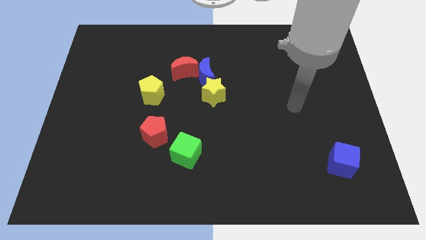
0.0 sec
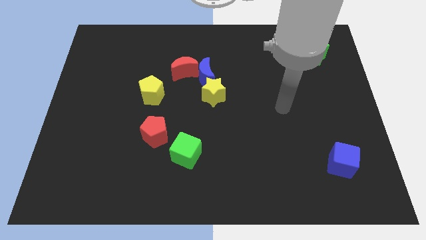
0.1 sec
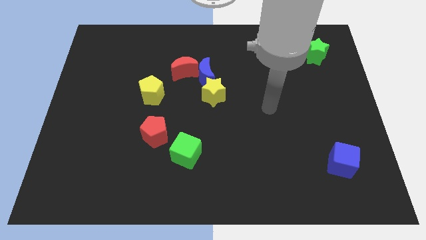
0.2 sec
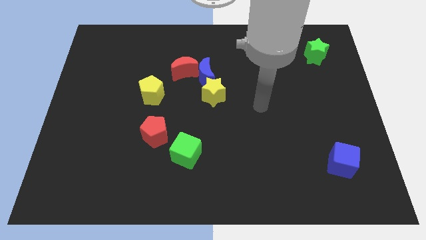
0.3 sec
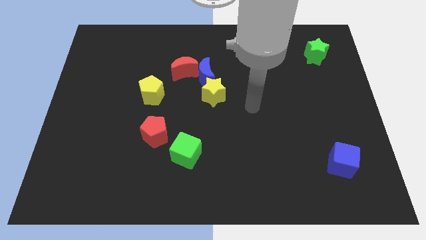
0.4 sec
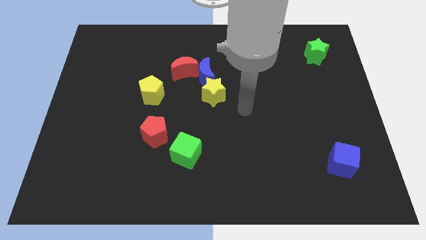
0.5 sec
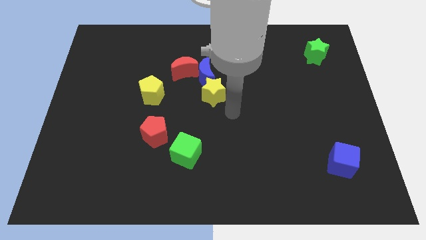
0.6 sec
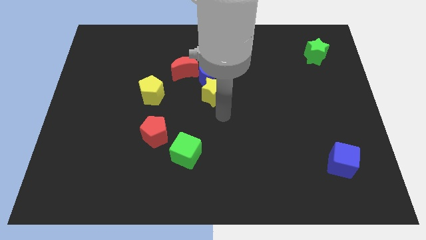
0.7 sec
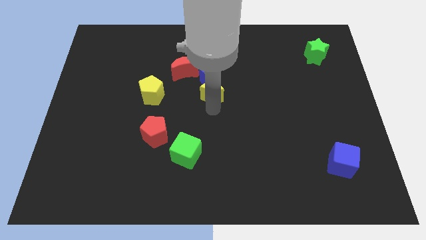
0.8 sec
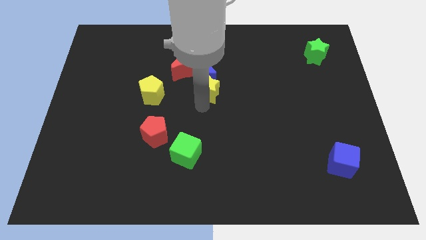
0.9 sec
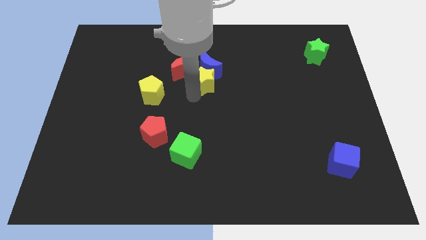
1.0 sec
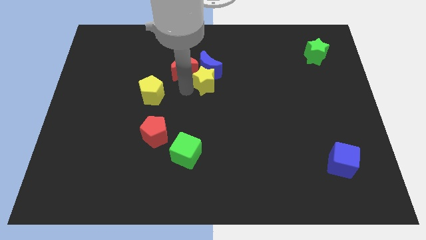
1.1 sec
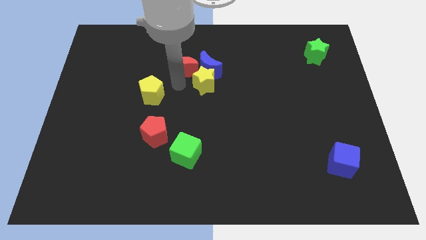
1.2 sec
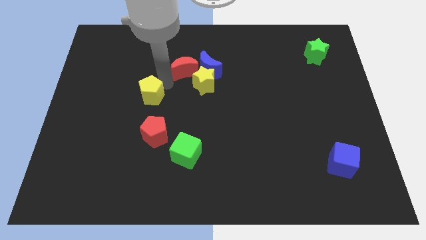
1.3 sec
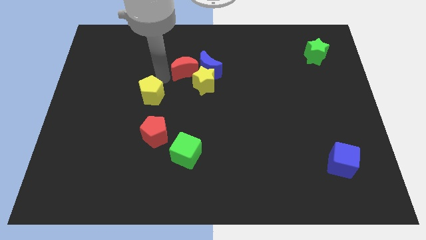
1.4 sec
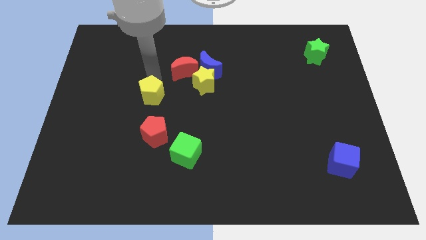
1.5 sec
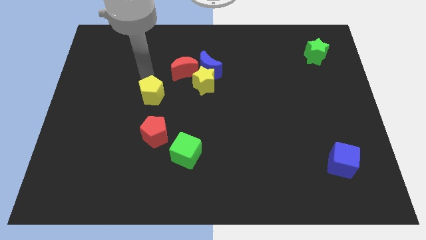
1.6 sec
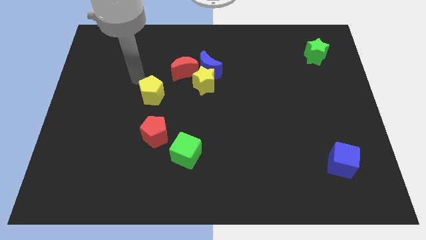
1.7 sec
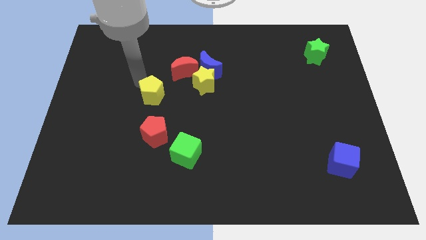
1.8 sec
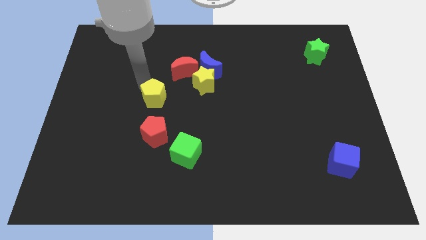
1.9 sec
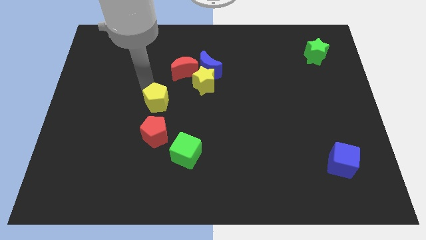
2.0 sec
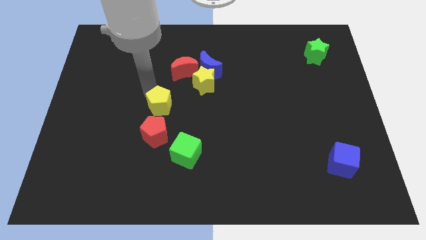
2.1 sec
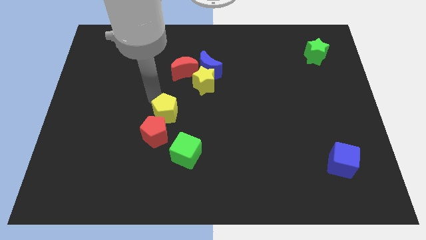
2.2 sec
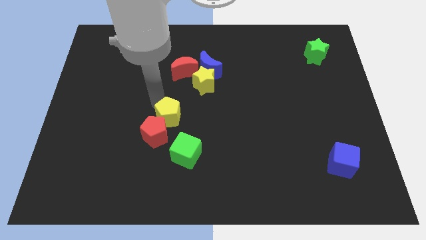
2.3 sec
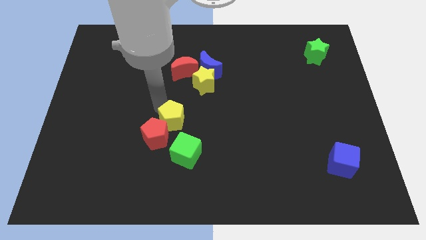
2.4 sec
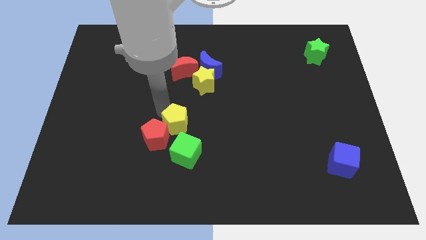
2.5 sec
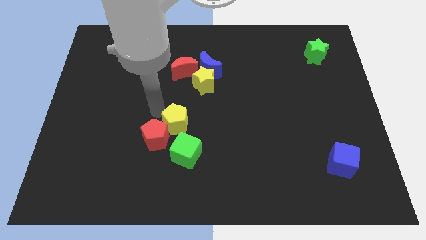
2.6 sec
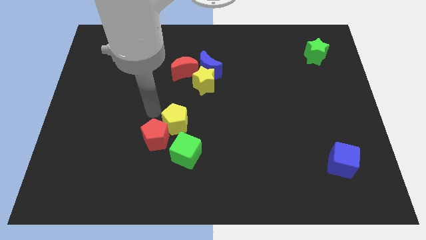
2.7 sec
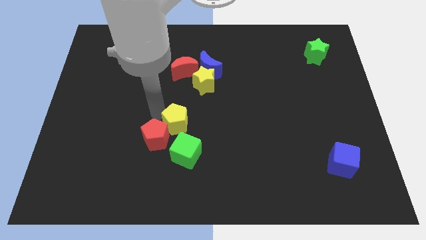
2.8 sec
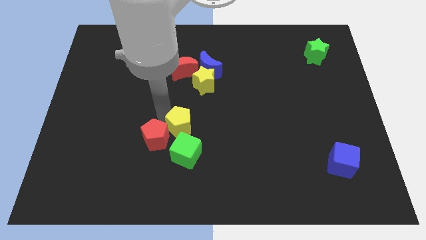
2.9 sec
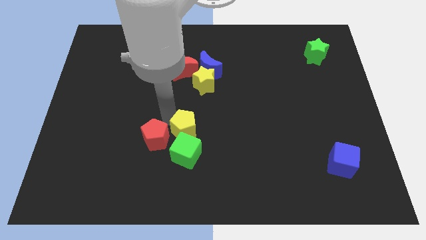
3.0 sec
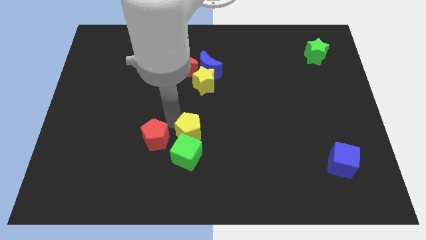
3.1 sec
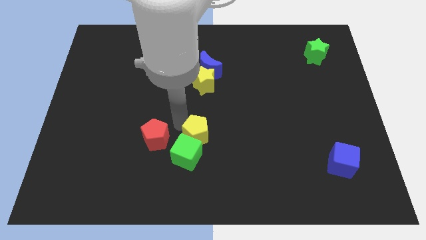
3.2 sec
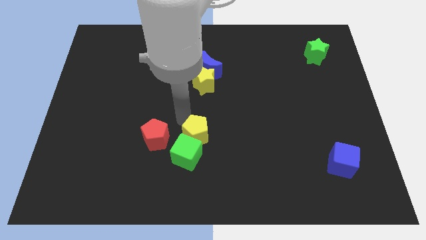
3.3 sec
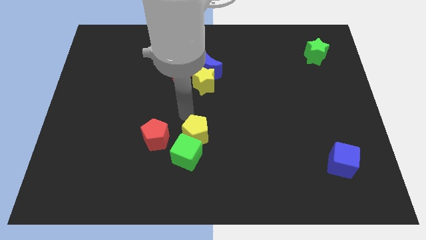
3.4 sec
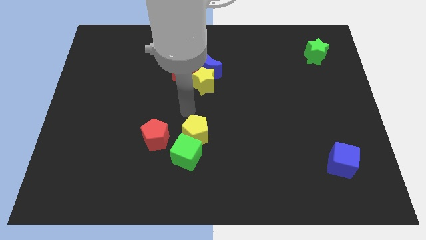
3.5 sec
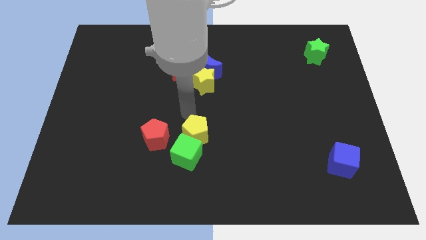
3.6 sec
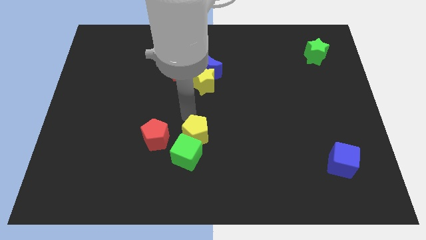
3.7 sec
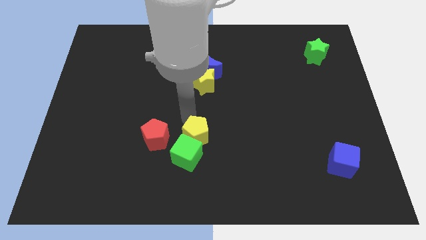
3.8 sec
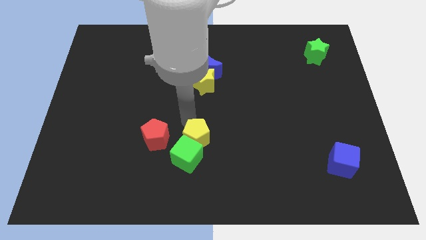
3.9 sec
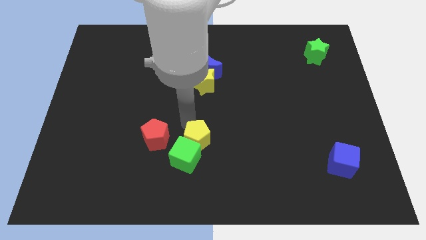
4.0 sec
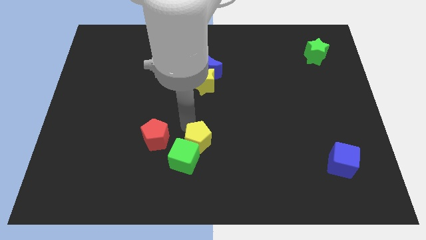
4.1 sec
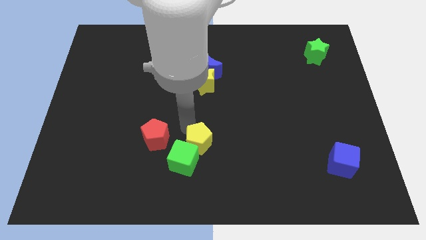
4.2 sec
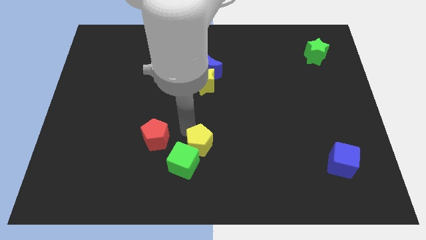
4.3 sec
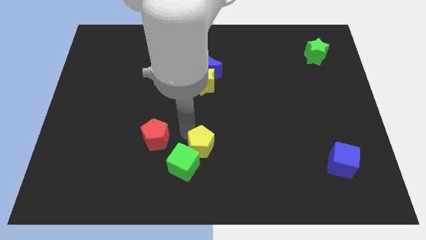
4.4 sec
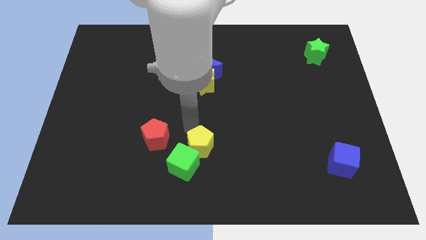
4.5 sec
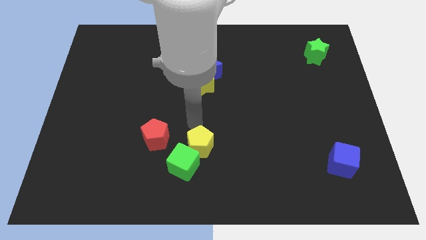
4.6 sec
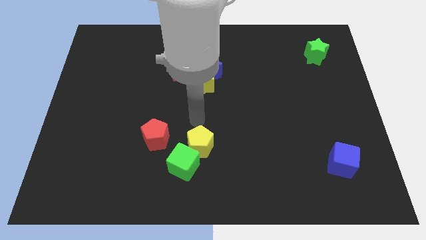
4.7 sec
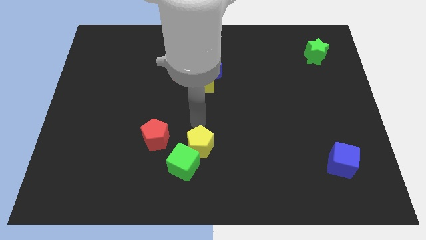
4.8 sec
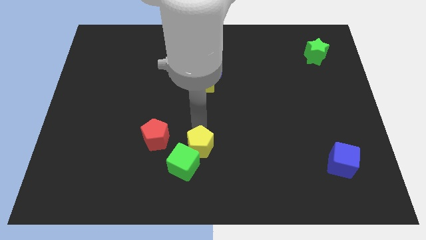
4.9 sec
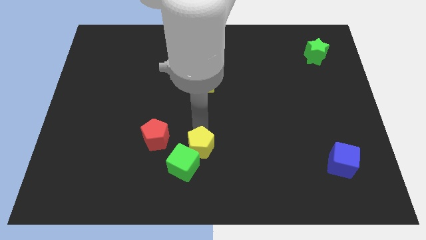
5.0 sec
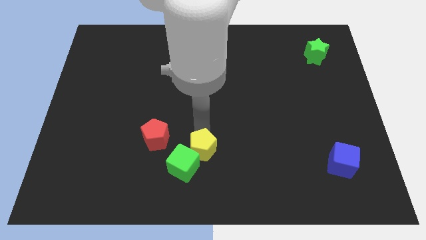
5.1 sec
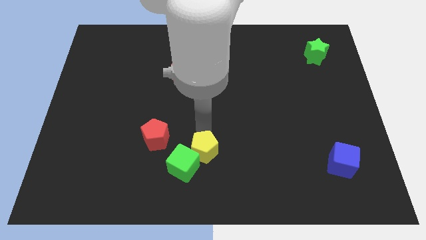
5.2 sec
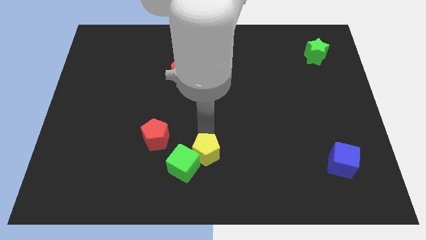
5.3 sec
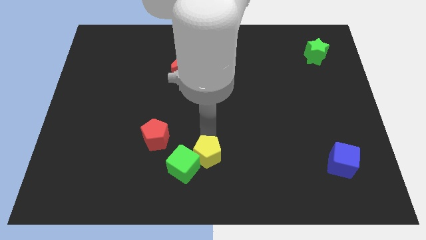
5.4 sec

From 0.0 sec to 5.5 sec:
slide the yellow pentagon to the bottom side

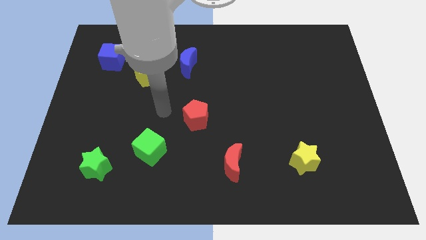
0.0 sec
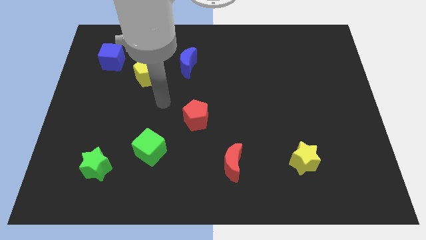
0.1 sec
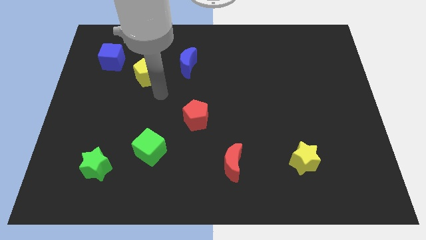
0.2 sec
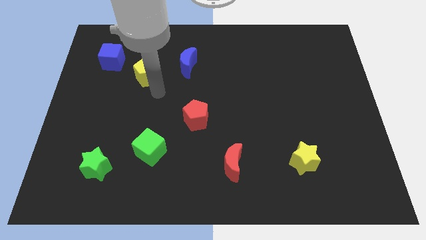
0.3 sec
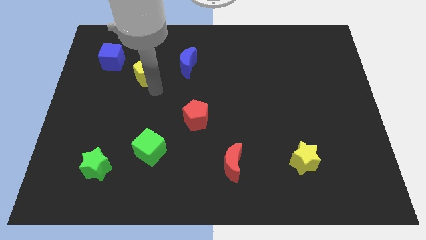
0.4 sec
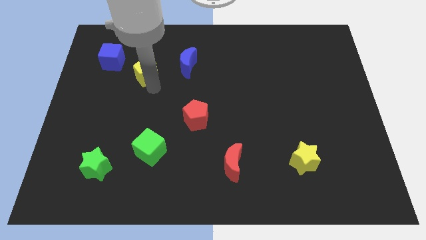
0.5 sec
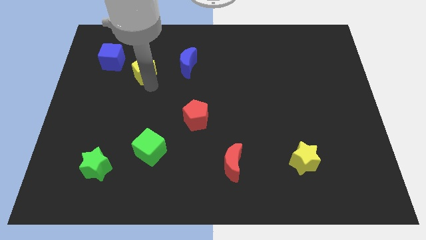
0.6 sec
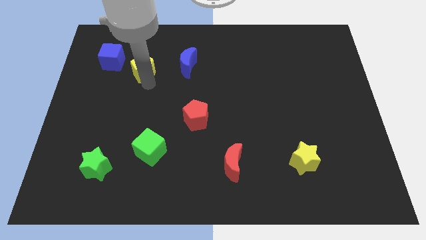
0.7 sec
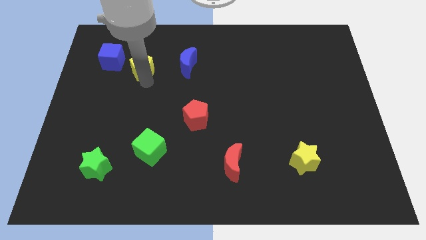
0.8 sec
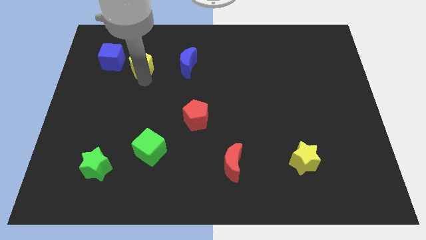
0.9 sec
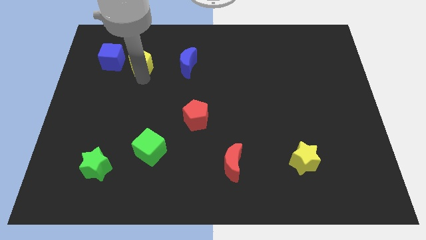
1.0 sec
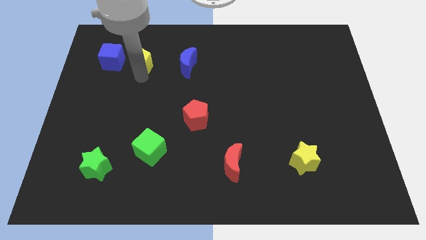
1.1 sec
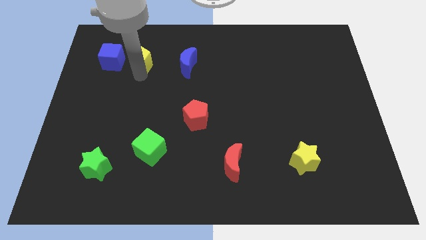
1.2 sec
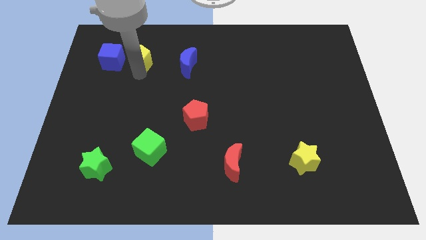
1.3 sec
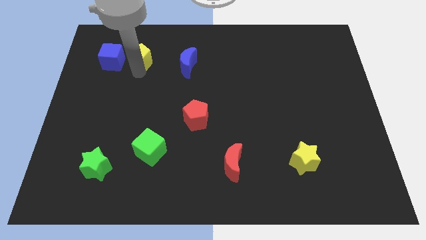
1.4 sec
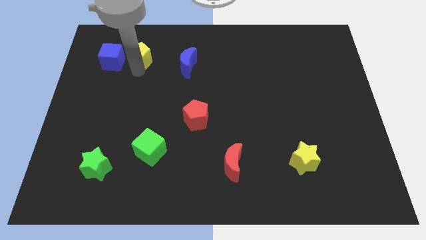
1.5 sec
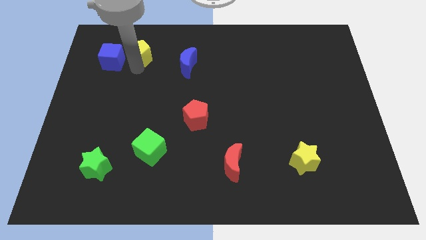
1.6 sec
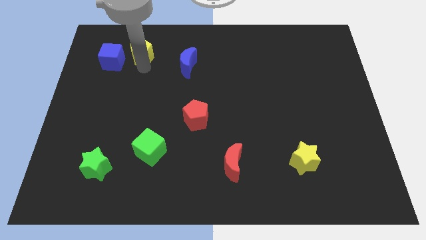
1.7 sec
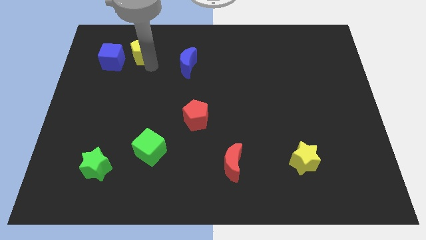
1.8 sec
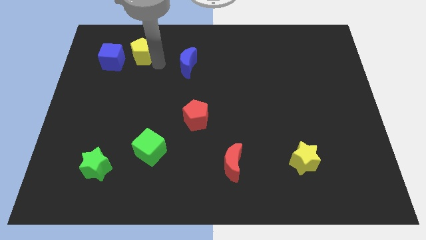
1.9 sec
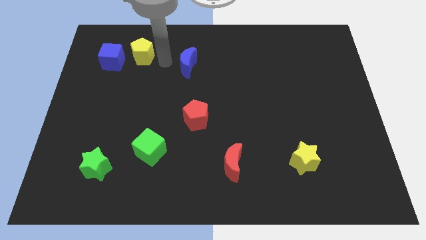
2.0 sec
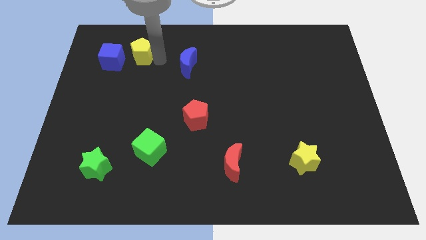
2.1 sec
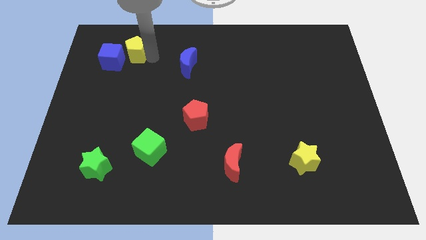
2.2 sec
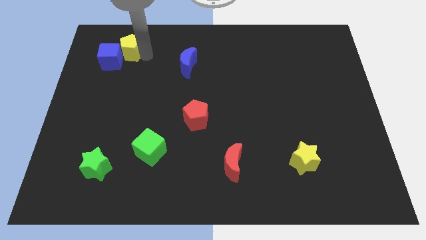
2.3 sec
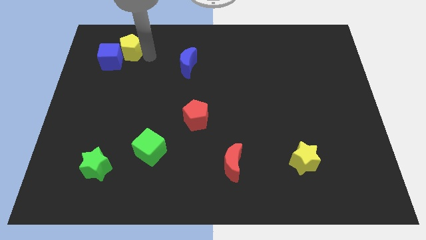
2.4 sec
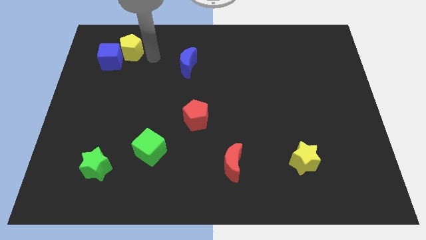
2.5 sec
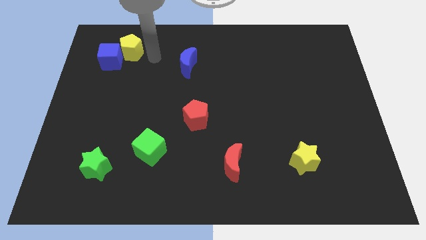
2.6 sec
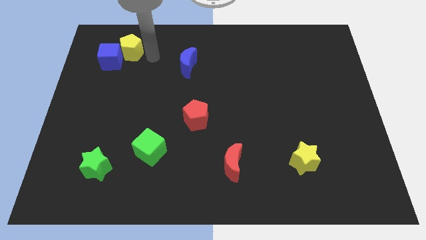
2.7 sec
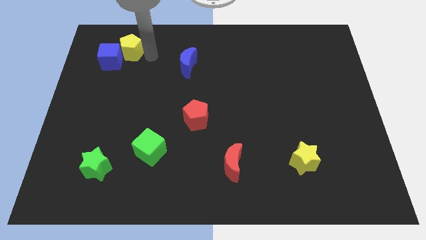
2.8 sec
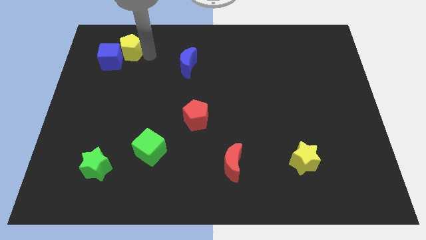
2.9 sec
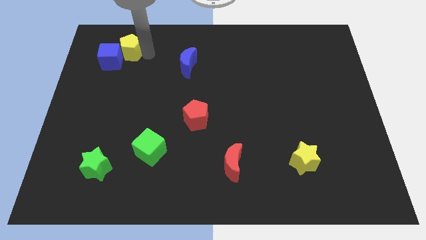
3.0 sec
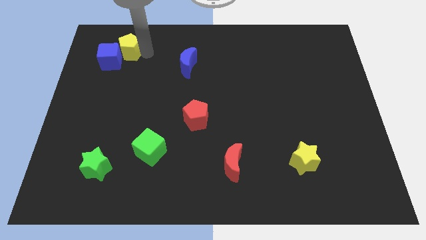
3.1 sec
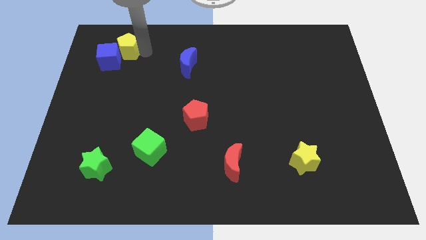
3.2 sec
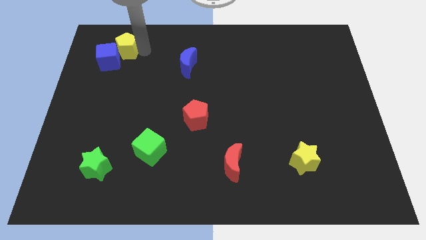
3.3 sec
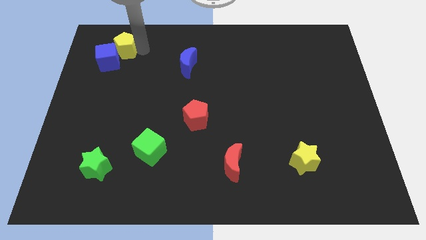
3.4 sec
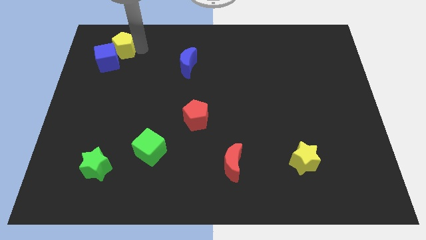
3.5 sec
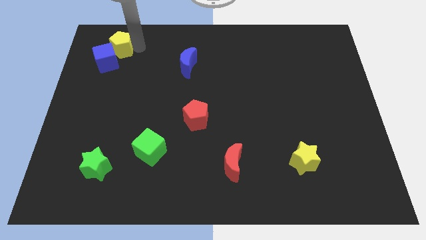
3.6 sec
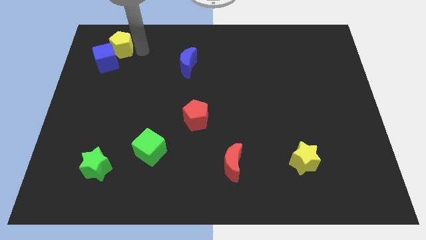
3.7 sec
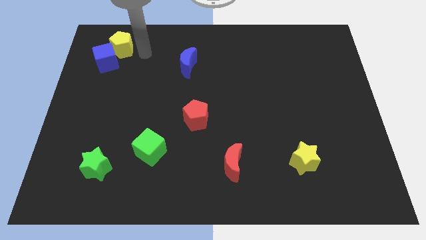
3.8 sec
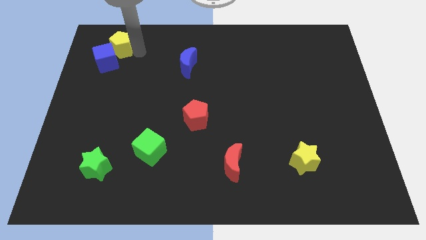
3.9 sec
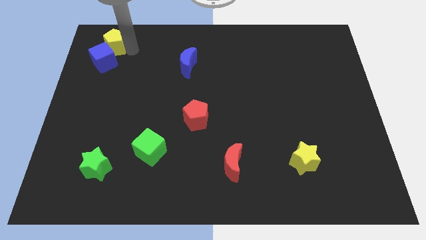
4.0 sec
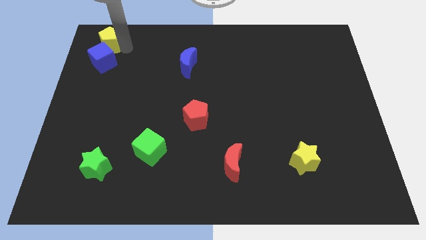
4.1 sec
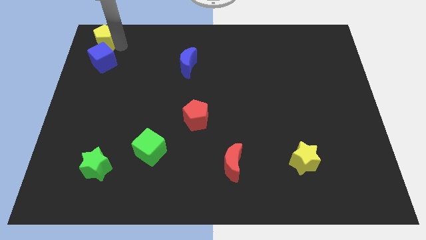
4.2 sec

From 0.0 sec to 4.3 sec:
move the yellow pentagon to the top left
